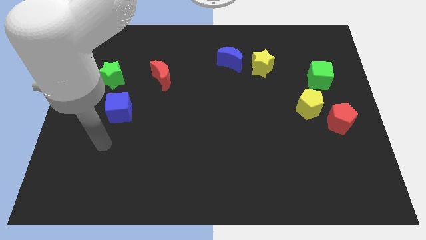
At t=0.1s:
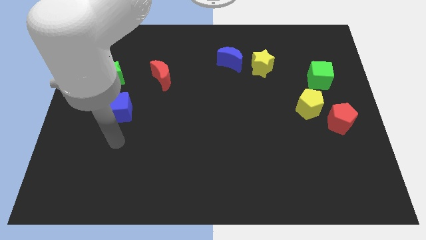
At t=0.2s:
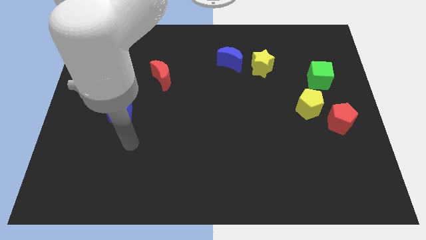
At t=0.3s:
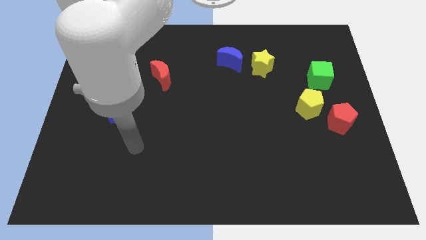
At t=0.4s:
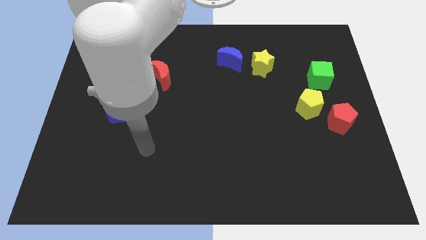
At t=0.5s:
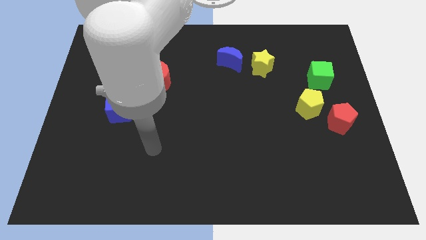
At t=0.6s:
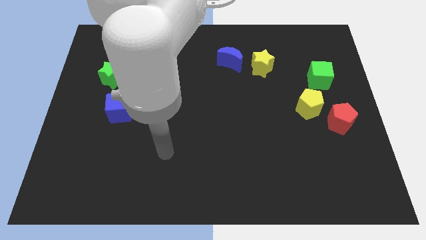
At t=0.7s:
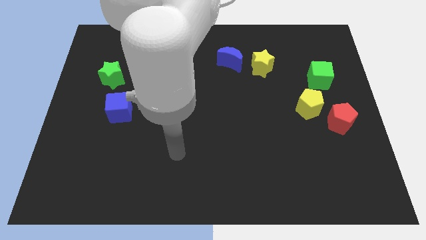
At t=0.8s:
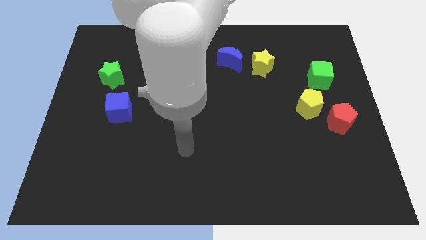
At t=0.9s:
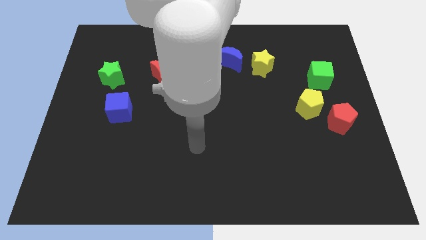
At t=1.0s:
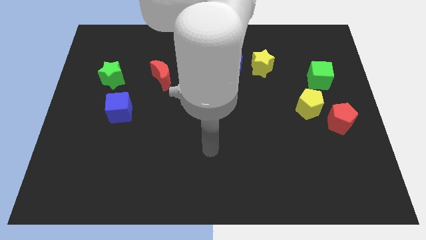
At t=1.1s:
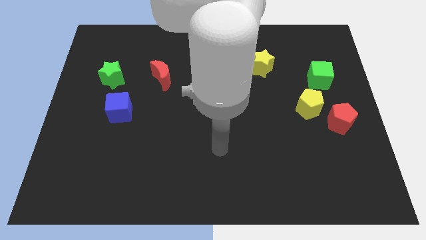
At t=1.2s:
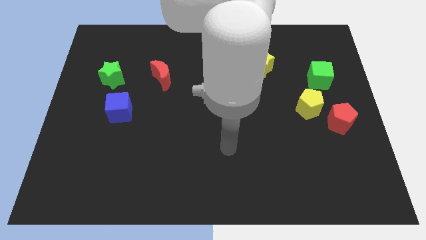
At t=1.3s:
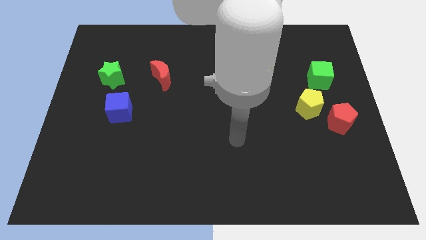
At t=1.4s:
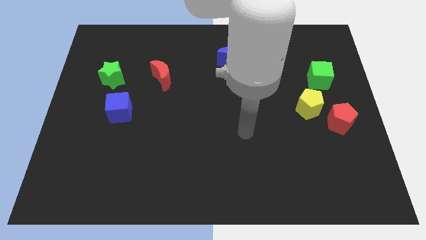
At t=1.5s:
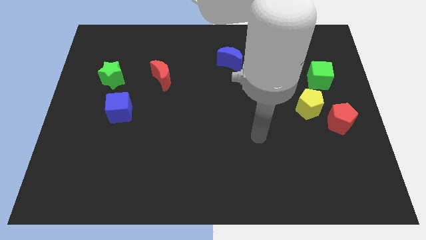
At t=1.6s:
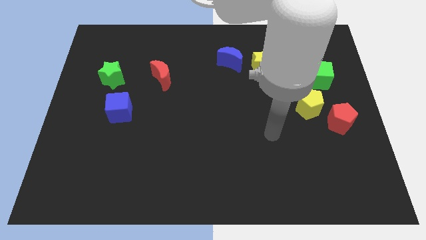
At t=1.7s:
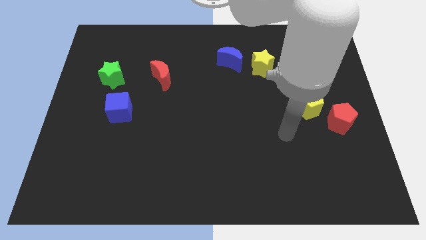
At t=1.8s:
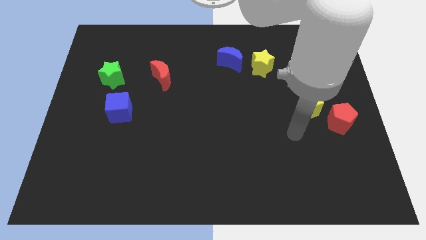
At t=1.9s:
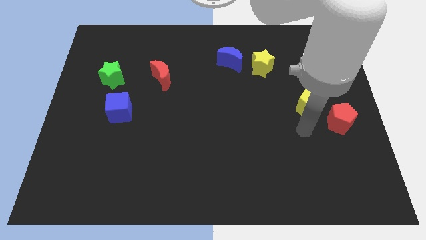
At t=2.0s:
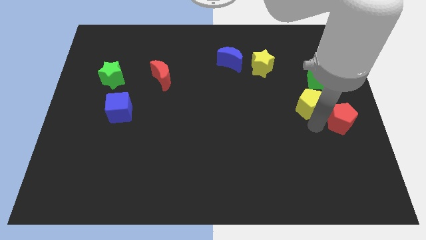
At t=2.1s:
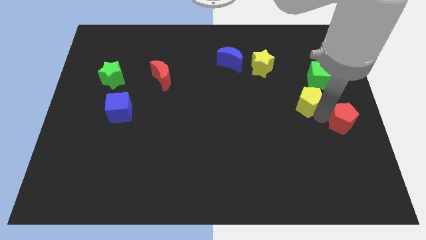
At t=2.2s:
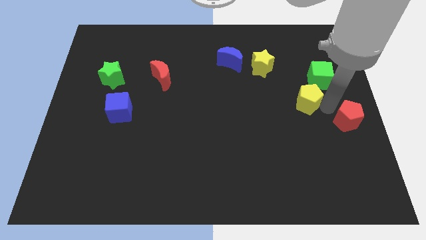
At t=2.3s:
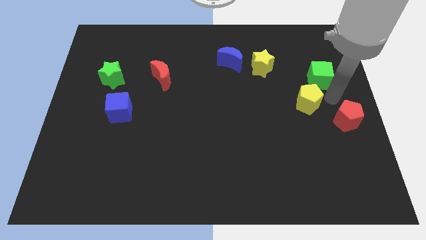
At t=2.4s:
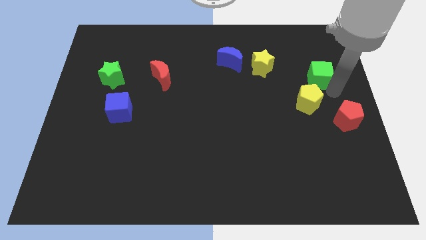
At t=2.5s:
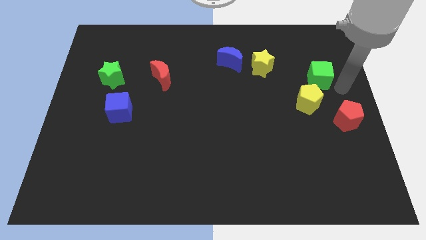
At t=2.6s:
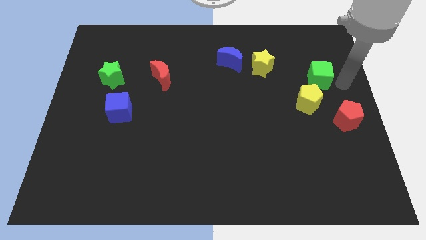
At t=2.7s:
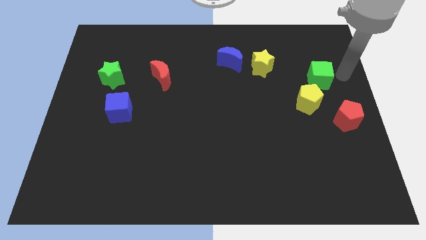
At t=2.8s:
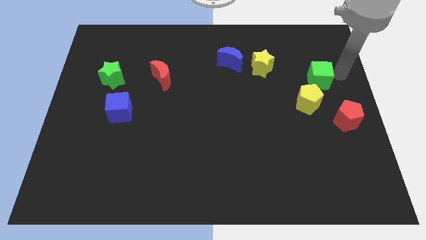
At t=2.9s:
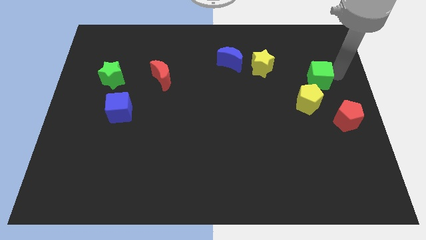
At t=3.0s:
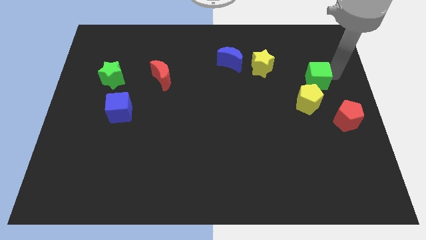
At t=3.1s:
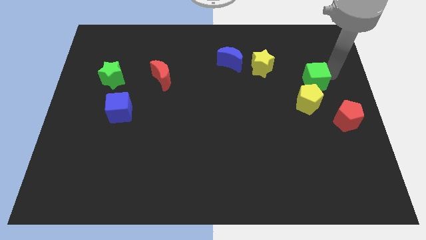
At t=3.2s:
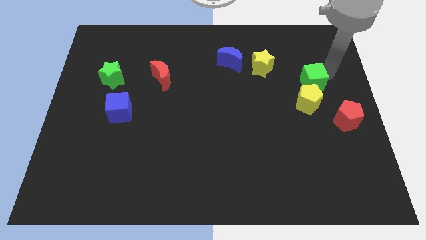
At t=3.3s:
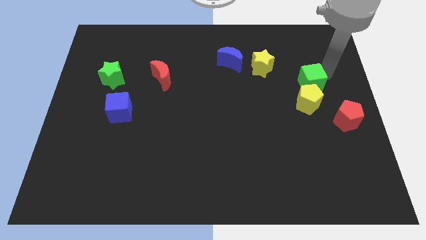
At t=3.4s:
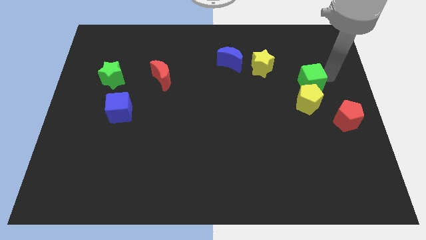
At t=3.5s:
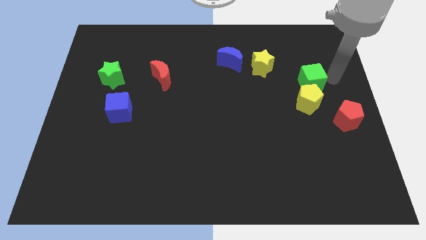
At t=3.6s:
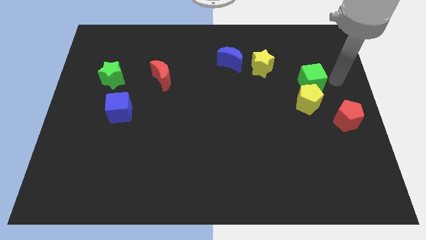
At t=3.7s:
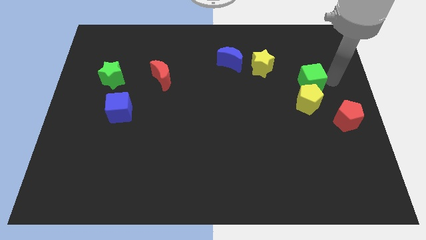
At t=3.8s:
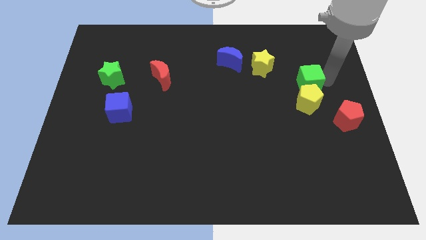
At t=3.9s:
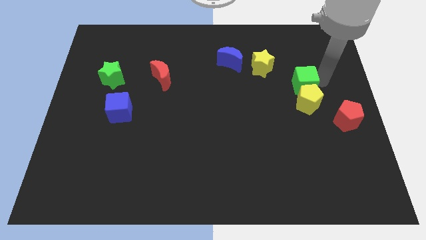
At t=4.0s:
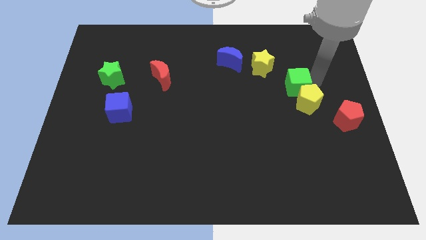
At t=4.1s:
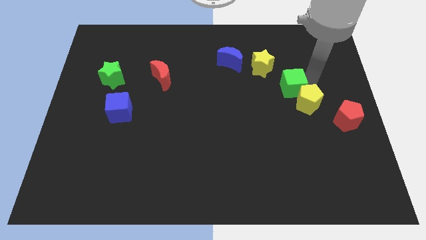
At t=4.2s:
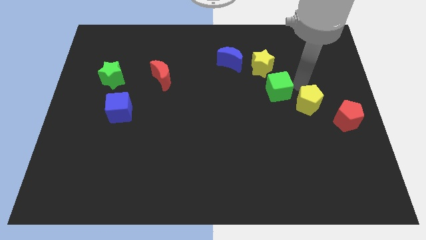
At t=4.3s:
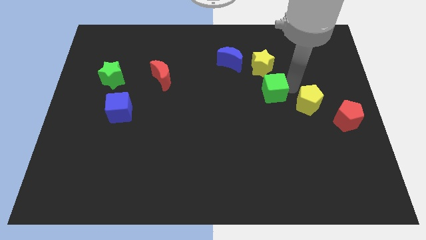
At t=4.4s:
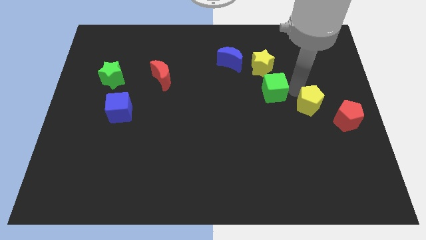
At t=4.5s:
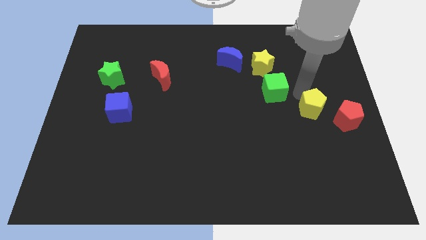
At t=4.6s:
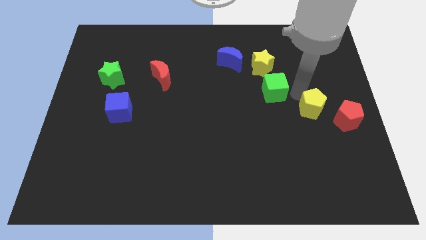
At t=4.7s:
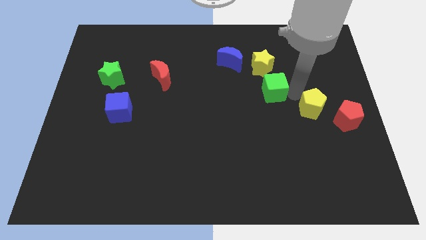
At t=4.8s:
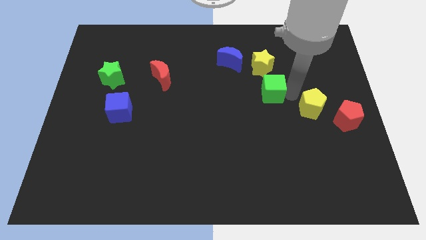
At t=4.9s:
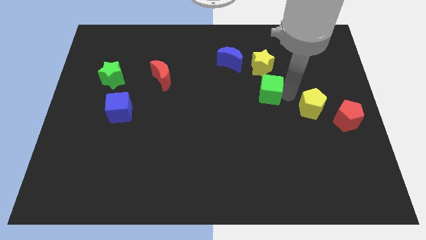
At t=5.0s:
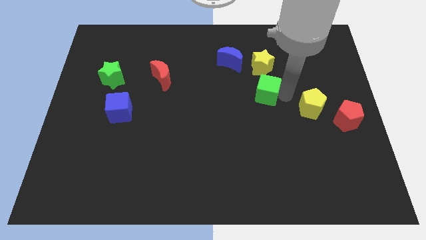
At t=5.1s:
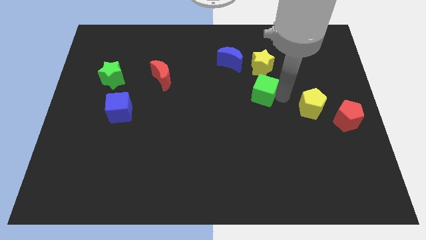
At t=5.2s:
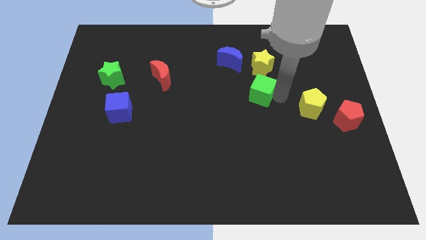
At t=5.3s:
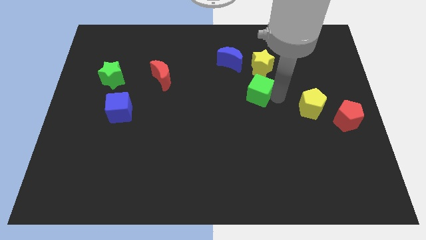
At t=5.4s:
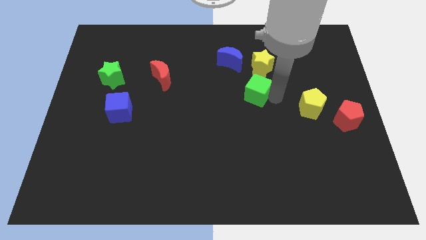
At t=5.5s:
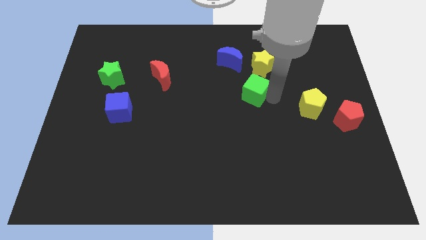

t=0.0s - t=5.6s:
push the green cube diagonally down and to the right of the blue moon

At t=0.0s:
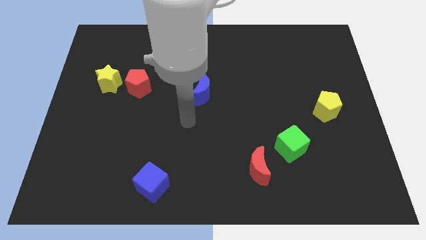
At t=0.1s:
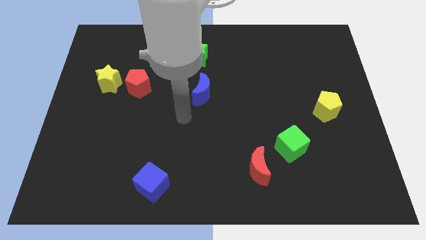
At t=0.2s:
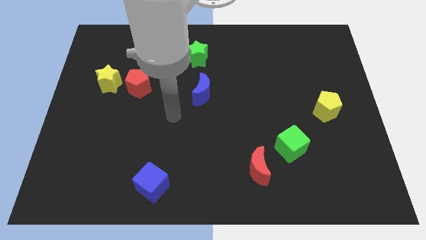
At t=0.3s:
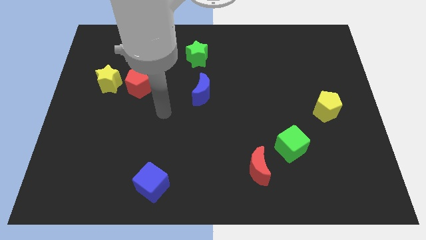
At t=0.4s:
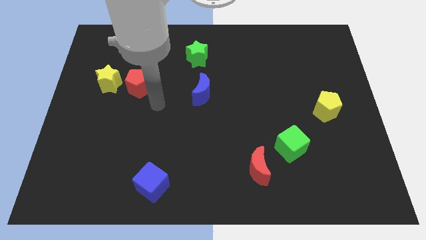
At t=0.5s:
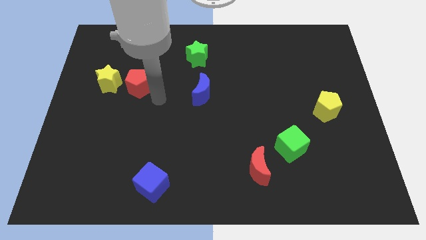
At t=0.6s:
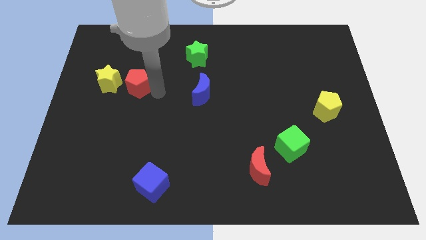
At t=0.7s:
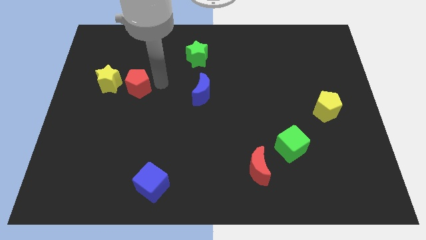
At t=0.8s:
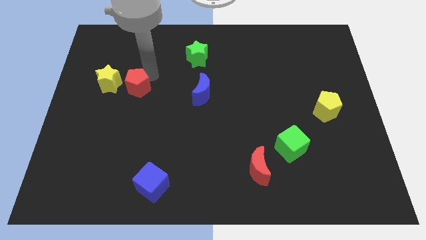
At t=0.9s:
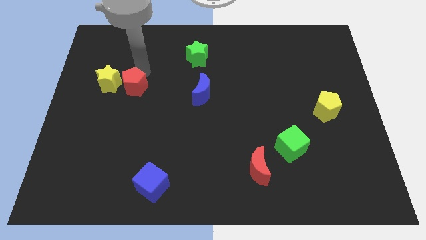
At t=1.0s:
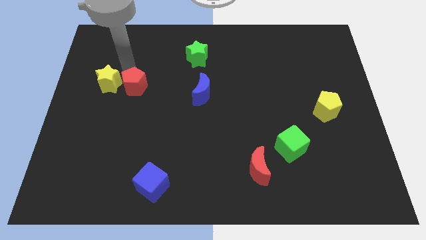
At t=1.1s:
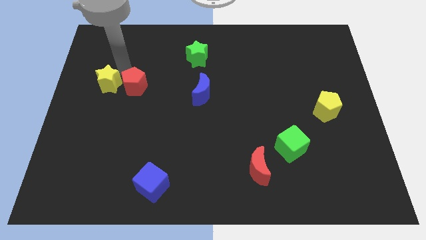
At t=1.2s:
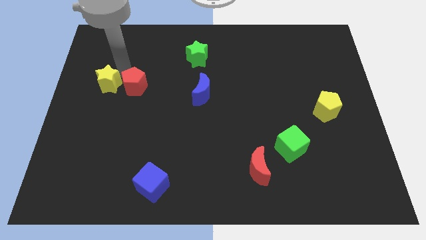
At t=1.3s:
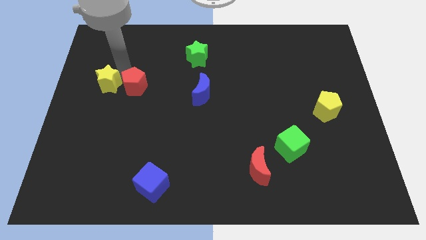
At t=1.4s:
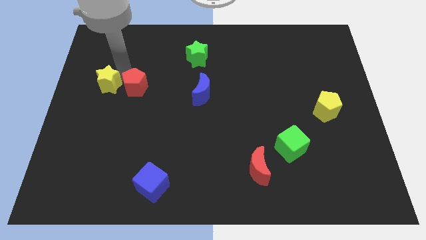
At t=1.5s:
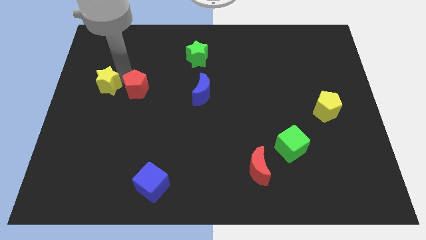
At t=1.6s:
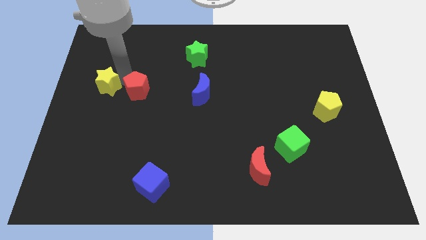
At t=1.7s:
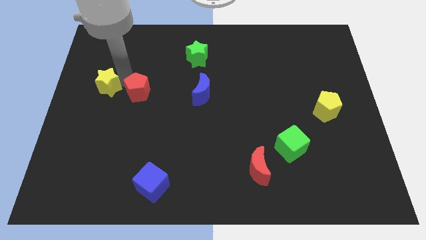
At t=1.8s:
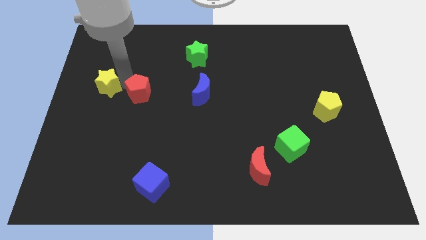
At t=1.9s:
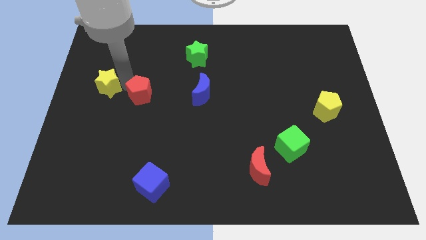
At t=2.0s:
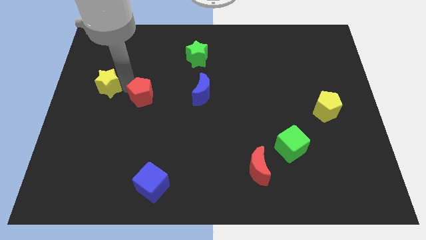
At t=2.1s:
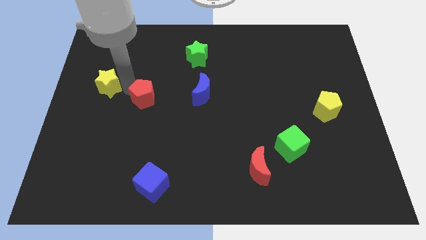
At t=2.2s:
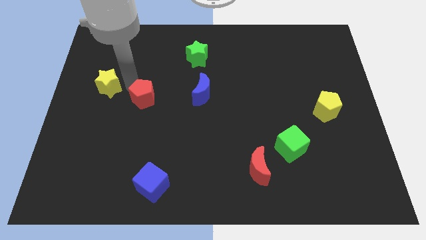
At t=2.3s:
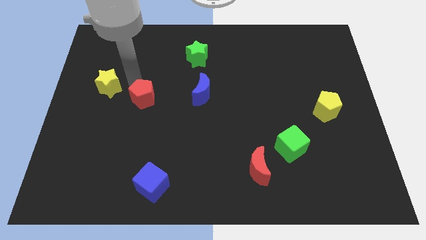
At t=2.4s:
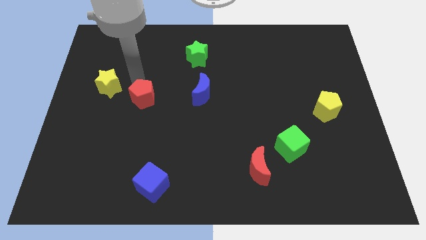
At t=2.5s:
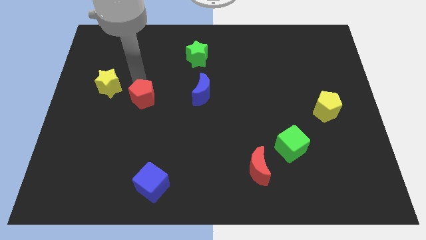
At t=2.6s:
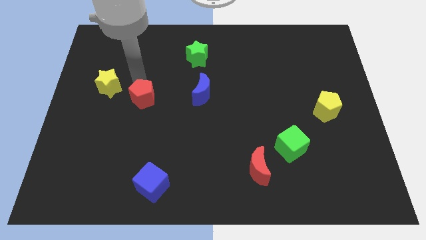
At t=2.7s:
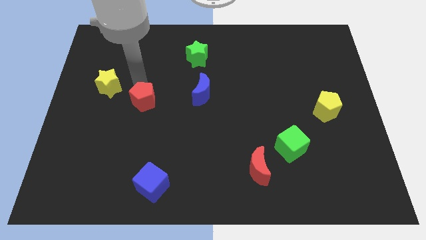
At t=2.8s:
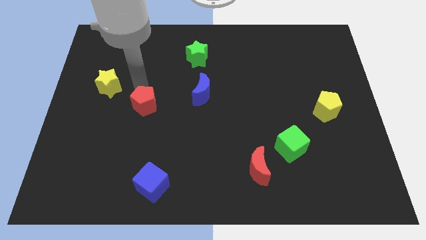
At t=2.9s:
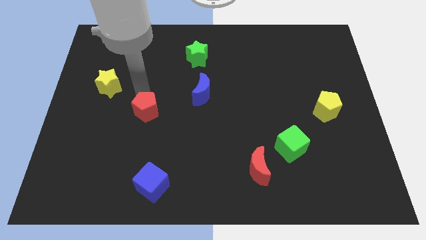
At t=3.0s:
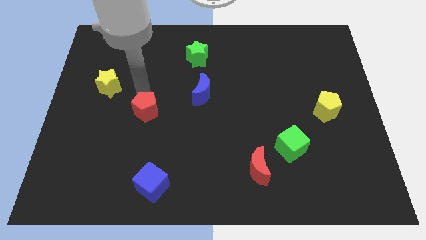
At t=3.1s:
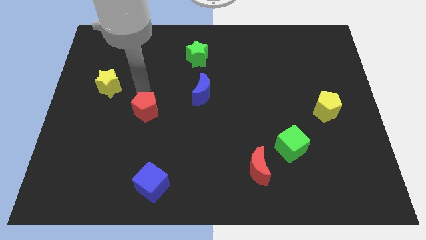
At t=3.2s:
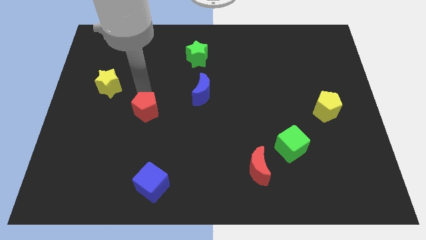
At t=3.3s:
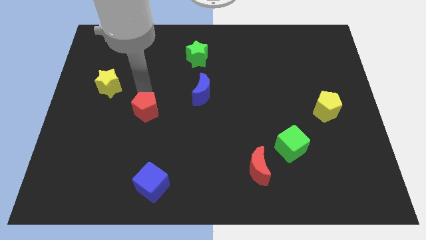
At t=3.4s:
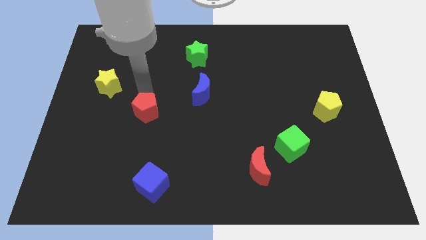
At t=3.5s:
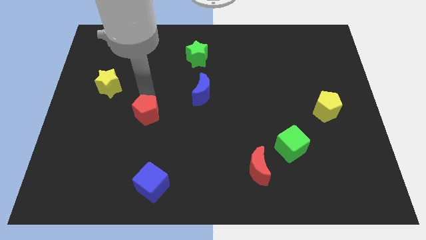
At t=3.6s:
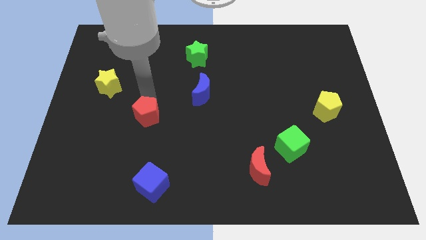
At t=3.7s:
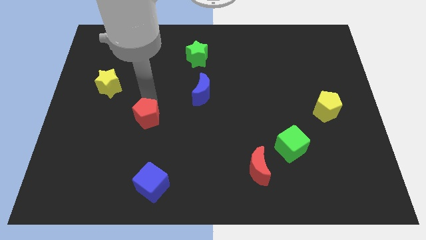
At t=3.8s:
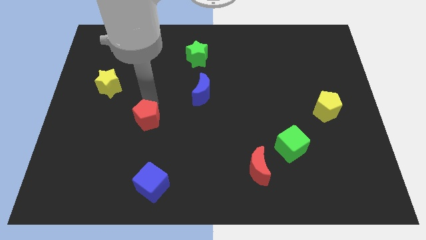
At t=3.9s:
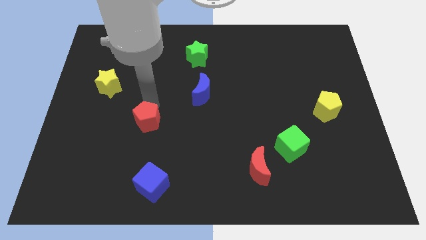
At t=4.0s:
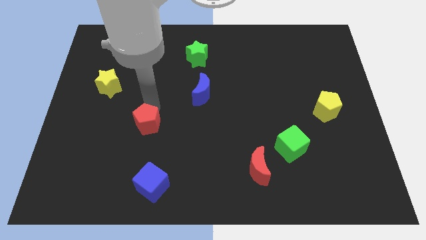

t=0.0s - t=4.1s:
push the red pentagon above the blue cube
